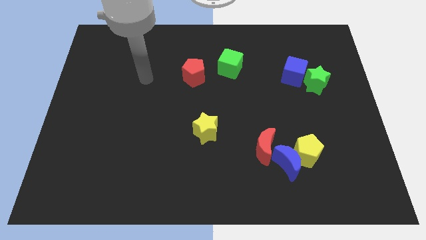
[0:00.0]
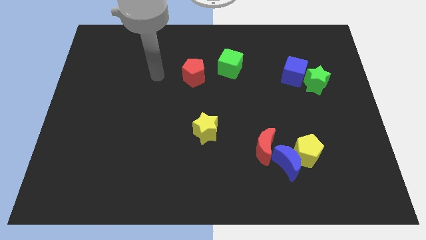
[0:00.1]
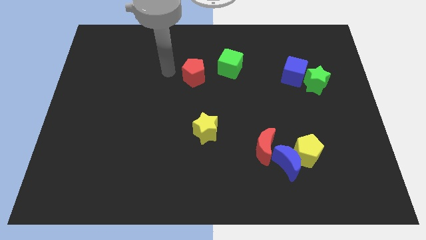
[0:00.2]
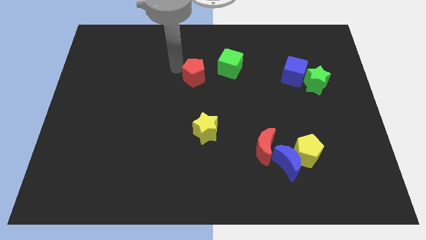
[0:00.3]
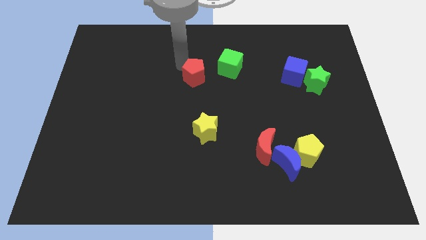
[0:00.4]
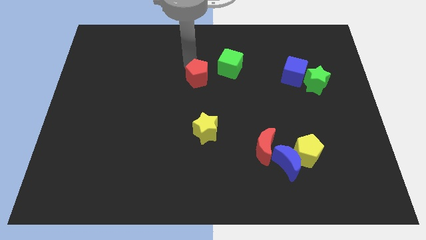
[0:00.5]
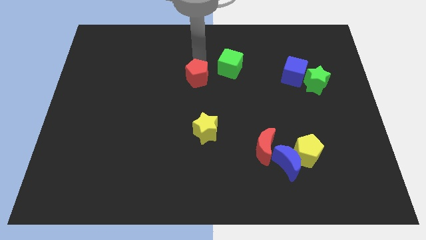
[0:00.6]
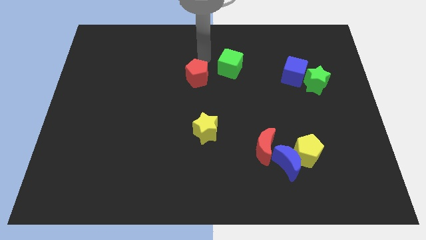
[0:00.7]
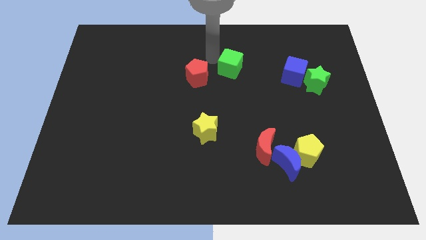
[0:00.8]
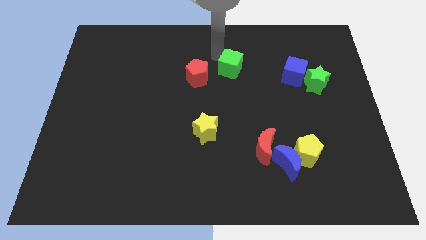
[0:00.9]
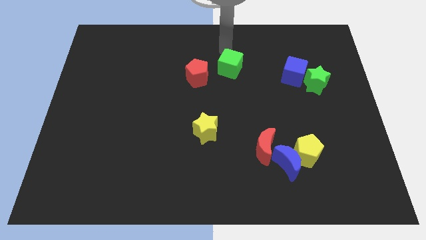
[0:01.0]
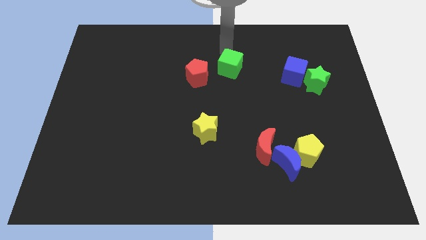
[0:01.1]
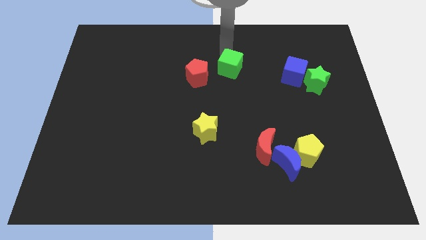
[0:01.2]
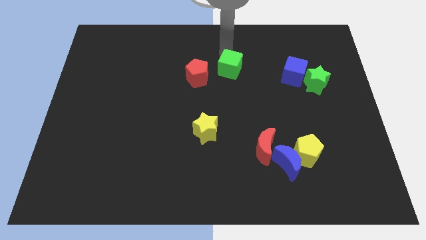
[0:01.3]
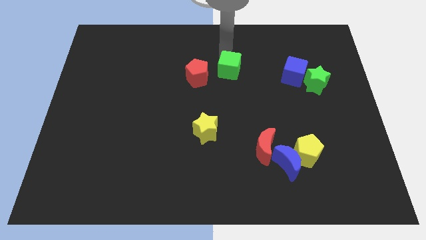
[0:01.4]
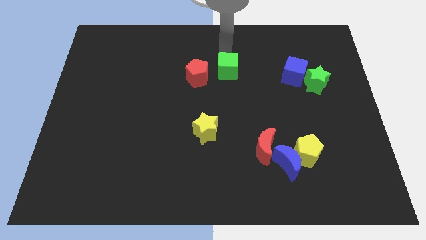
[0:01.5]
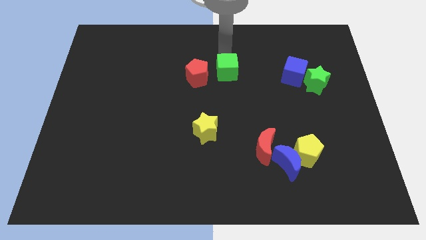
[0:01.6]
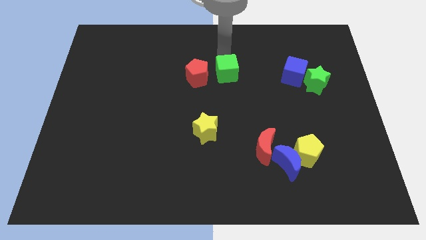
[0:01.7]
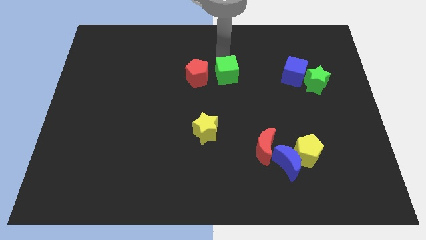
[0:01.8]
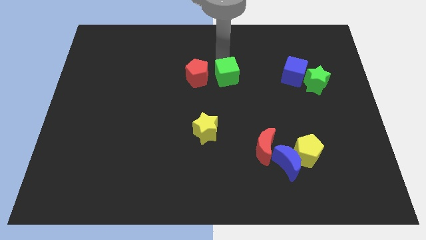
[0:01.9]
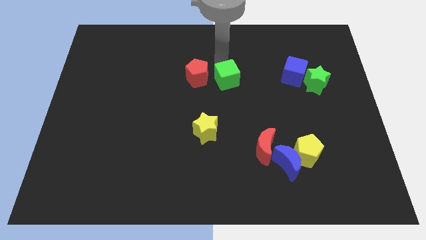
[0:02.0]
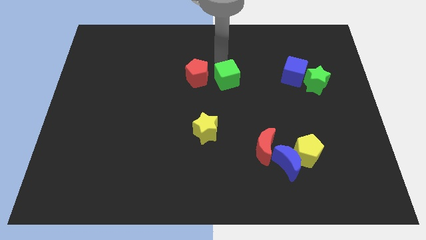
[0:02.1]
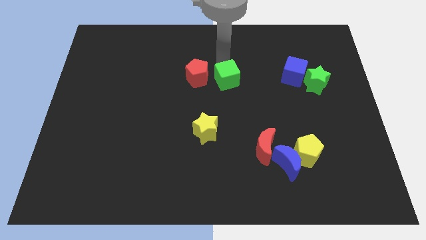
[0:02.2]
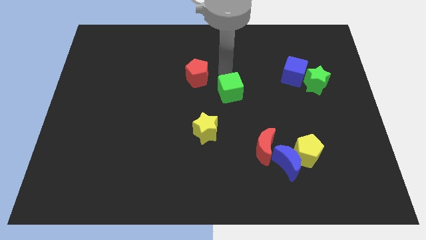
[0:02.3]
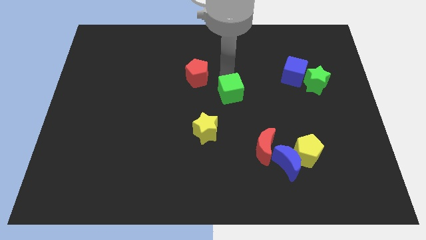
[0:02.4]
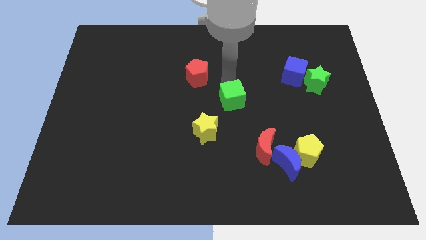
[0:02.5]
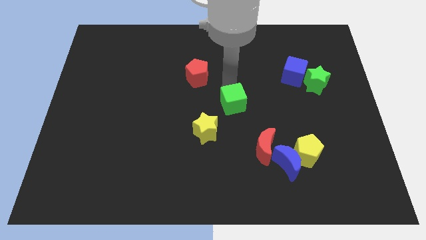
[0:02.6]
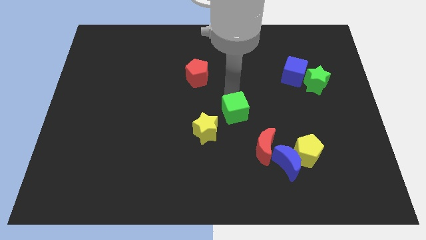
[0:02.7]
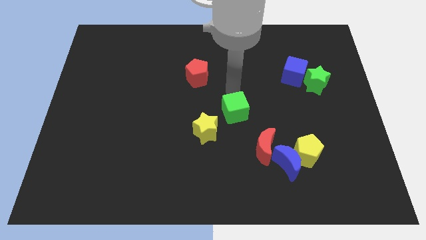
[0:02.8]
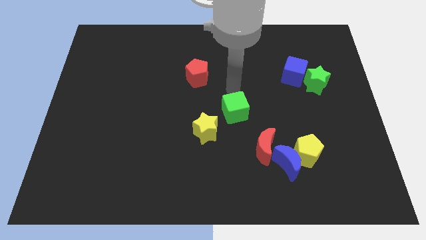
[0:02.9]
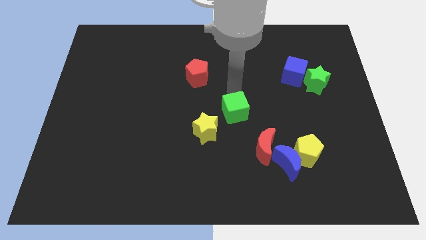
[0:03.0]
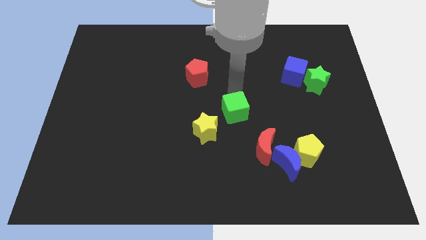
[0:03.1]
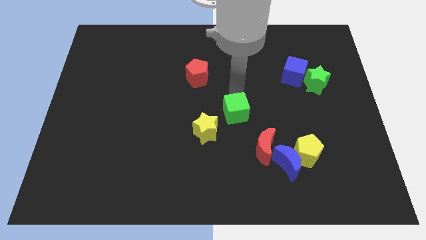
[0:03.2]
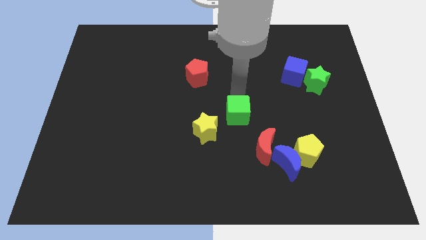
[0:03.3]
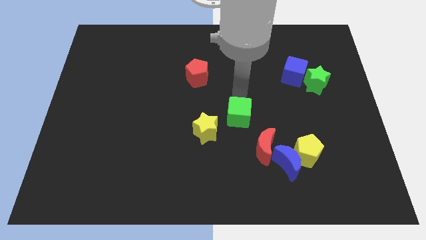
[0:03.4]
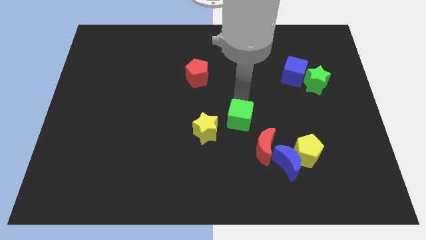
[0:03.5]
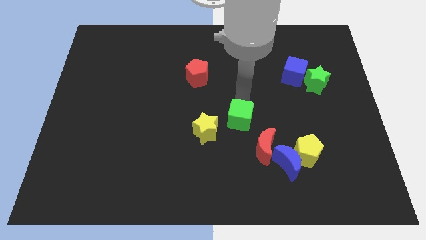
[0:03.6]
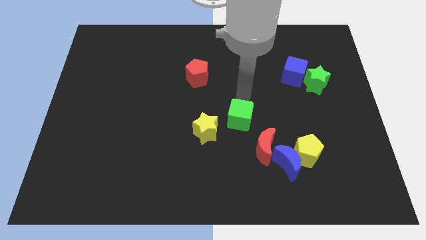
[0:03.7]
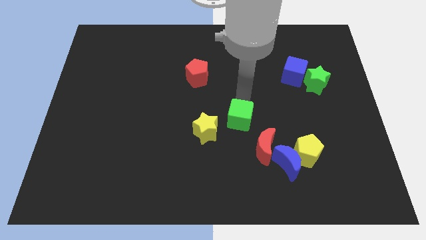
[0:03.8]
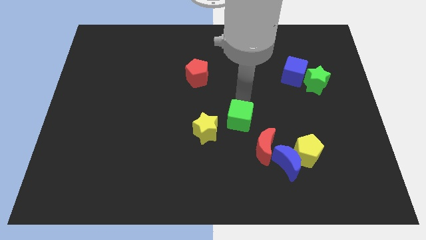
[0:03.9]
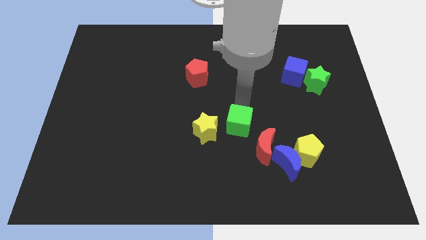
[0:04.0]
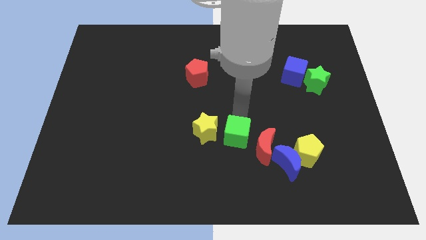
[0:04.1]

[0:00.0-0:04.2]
slide the green cube downwards

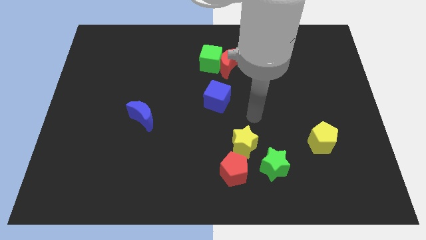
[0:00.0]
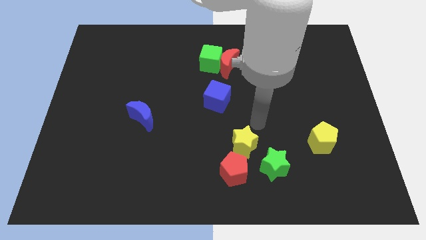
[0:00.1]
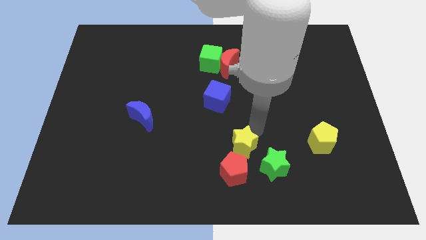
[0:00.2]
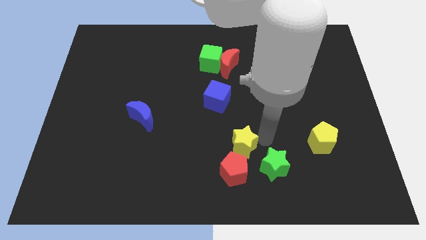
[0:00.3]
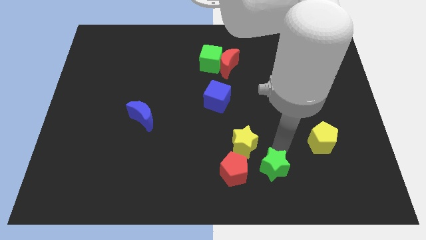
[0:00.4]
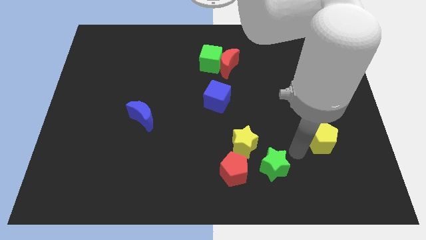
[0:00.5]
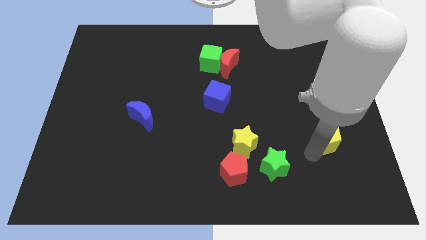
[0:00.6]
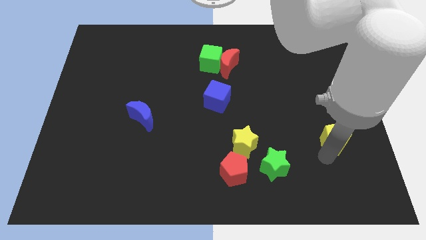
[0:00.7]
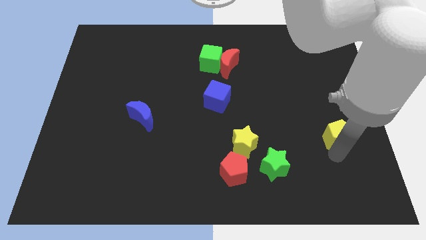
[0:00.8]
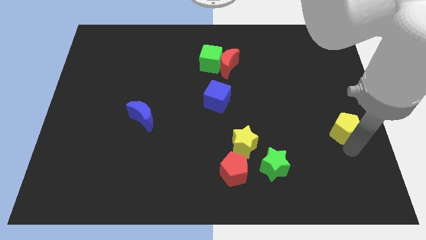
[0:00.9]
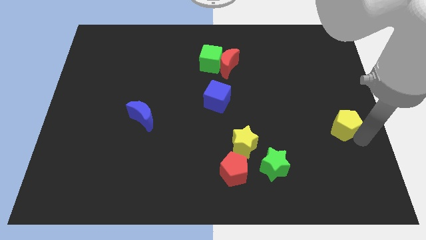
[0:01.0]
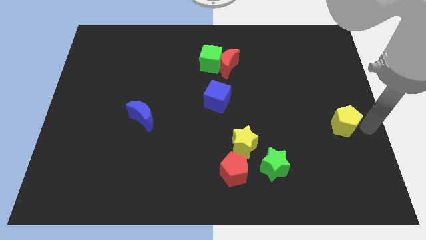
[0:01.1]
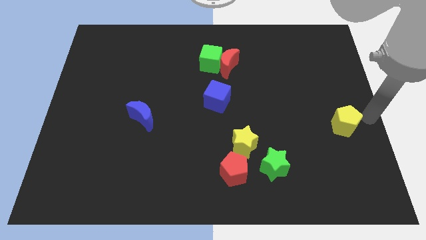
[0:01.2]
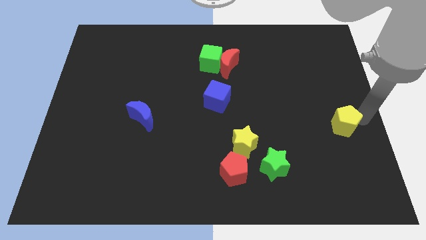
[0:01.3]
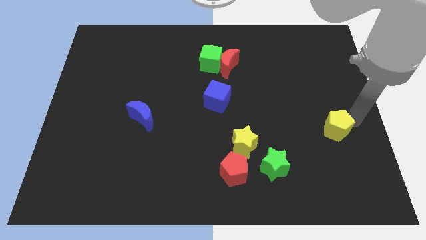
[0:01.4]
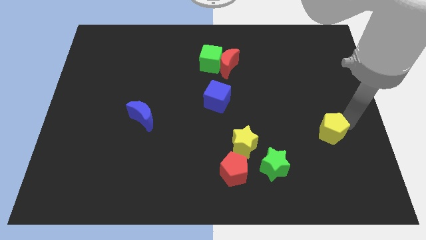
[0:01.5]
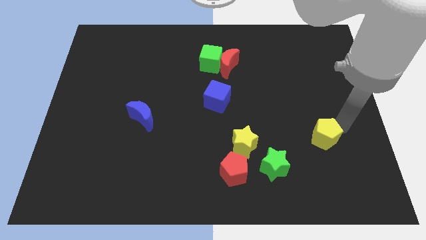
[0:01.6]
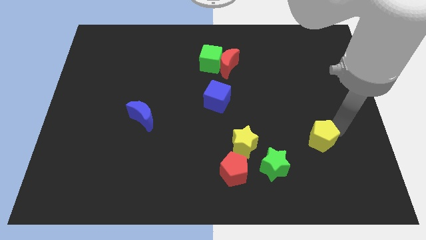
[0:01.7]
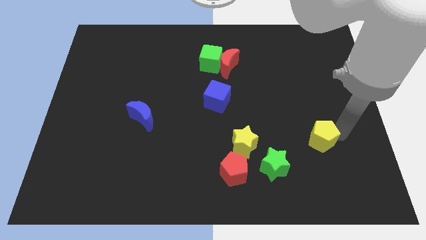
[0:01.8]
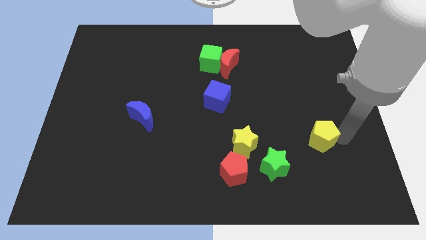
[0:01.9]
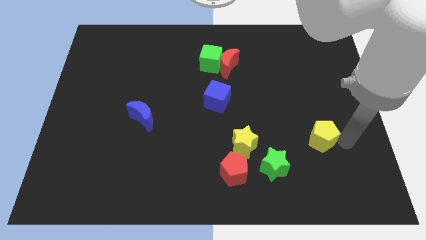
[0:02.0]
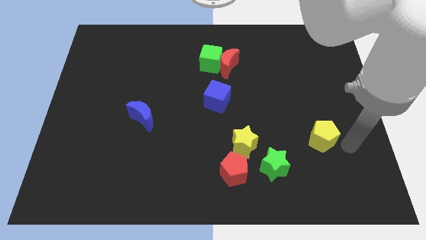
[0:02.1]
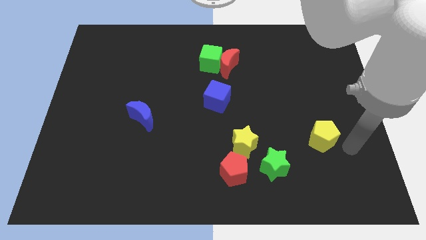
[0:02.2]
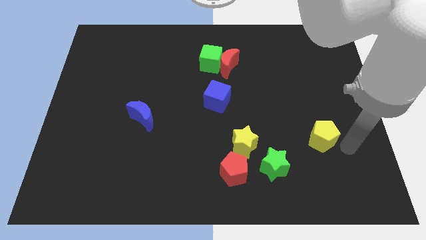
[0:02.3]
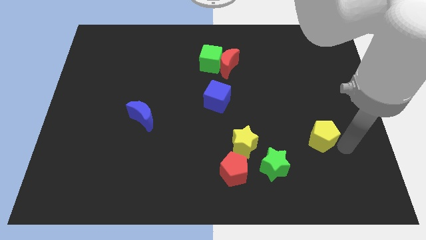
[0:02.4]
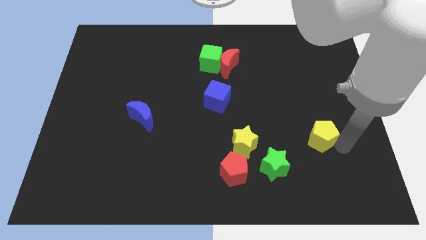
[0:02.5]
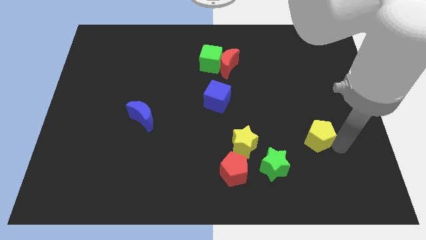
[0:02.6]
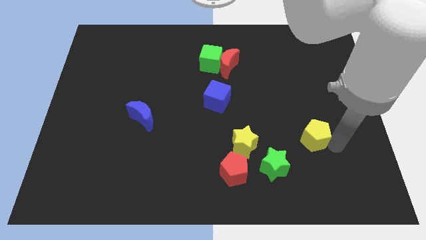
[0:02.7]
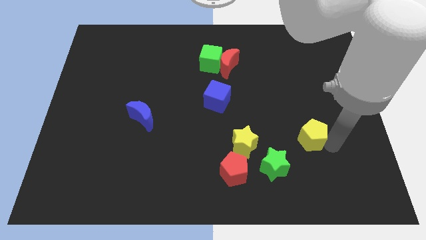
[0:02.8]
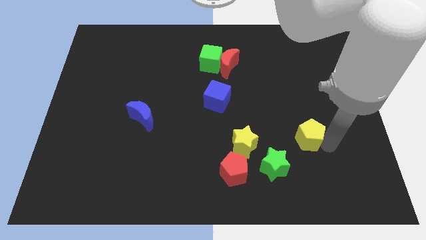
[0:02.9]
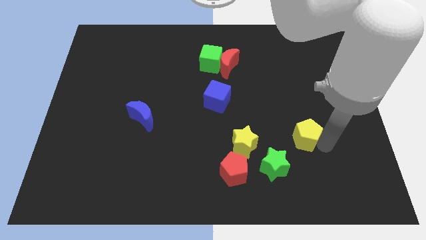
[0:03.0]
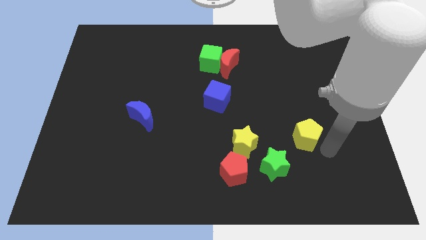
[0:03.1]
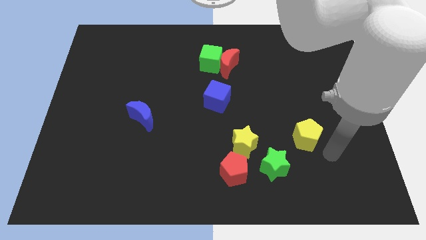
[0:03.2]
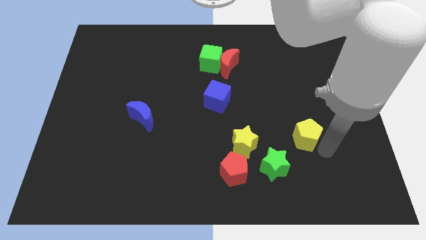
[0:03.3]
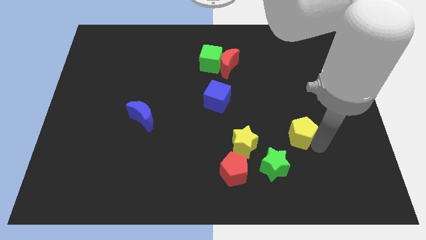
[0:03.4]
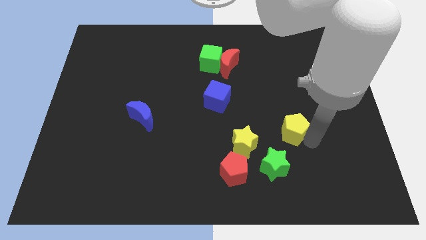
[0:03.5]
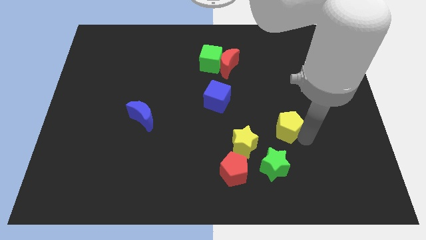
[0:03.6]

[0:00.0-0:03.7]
slide the yellow pentagon a little up and then to the left

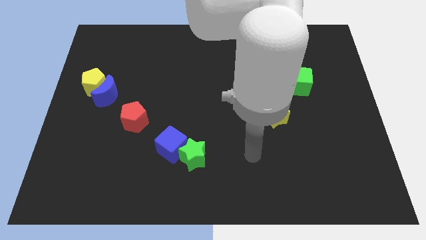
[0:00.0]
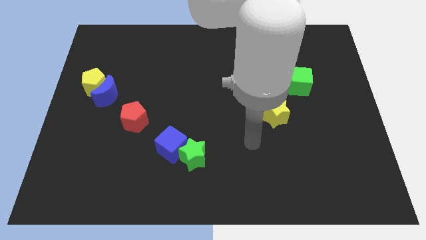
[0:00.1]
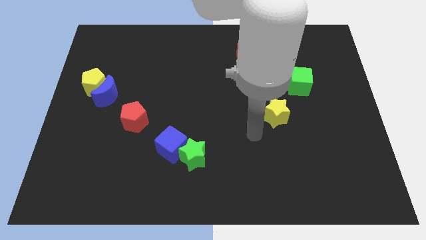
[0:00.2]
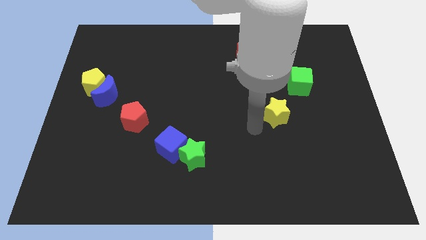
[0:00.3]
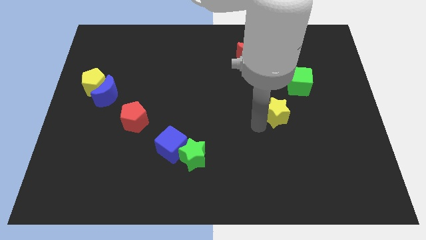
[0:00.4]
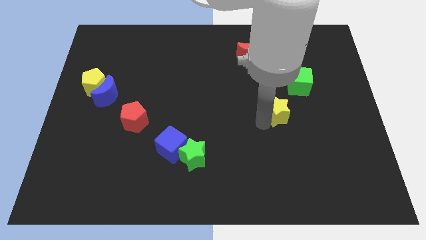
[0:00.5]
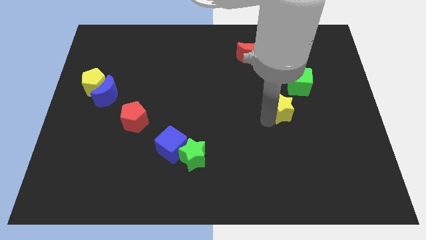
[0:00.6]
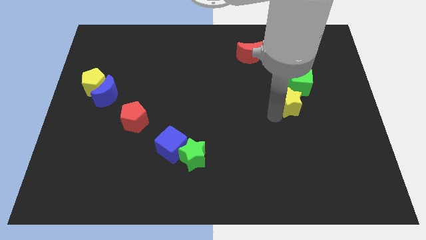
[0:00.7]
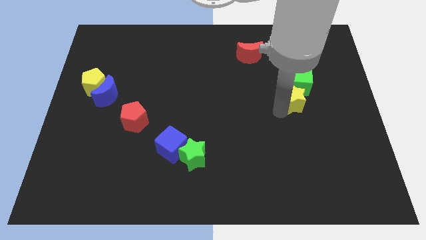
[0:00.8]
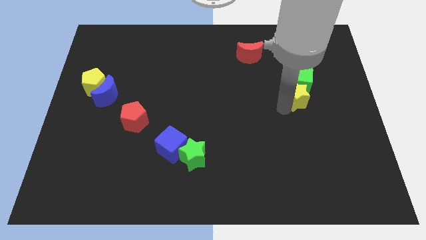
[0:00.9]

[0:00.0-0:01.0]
move the yellow star up and to the right diagonally a little bit
